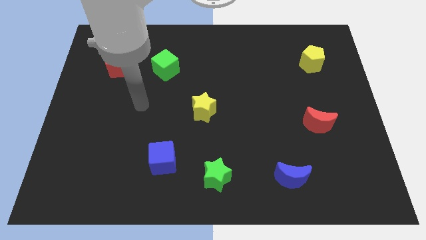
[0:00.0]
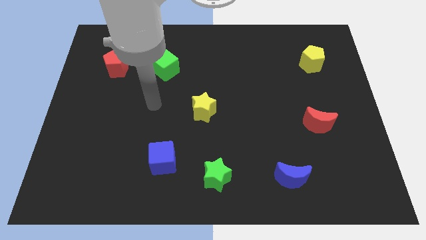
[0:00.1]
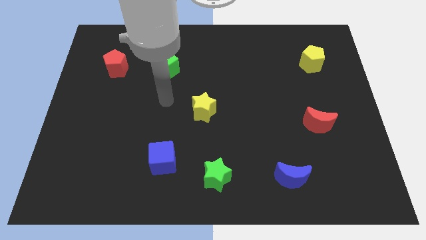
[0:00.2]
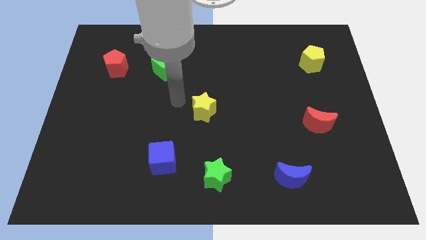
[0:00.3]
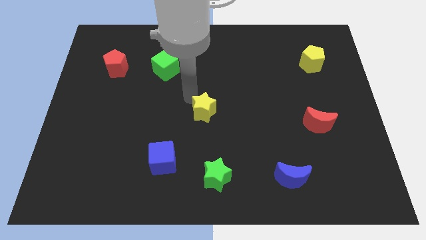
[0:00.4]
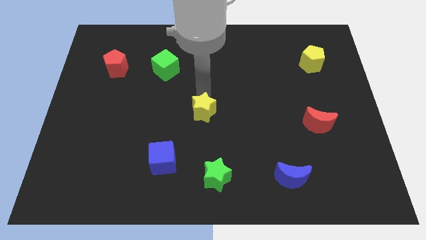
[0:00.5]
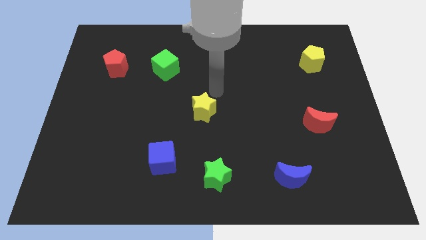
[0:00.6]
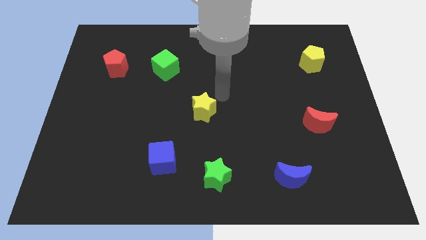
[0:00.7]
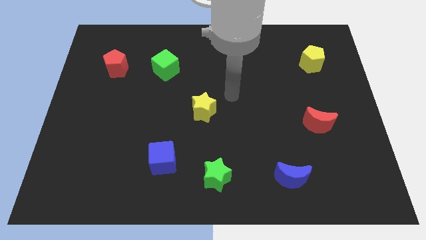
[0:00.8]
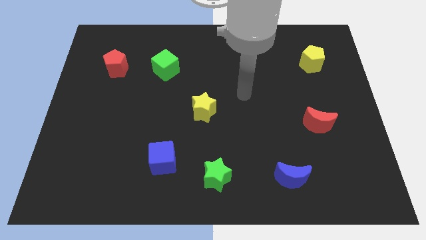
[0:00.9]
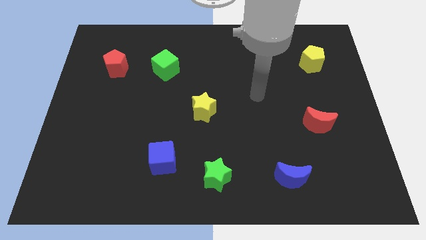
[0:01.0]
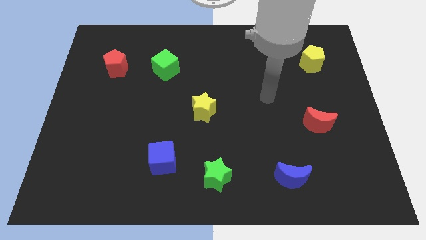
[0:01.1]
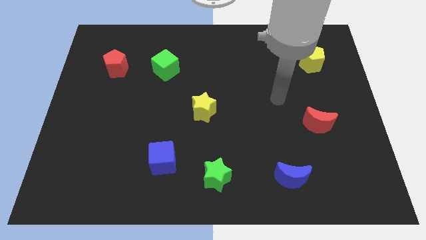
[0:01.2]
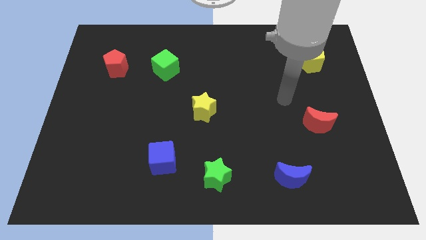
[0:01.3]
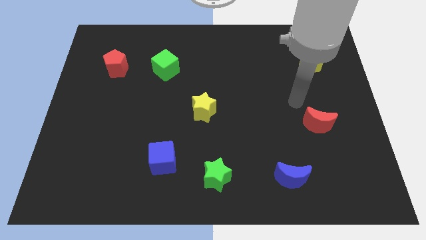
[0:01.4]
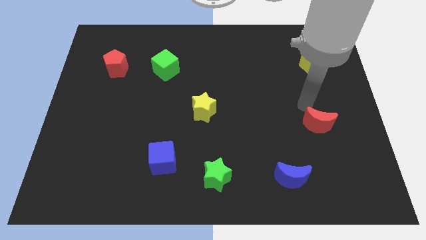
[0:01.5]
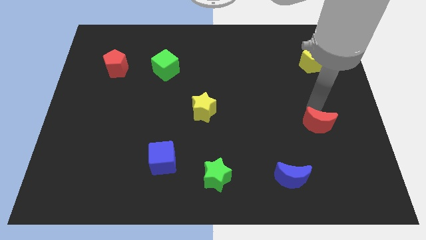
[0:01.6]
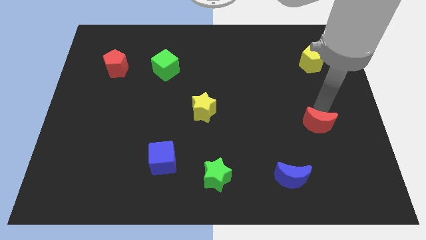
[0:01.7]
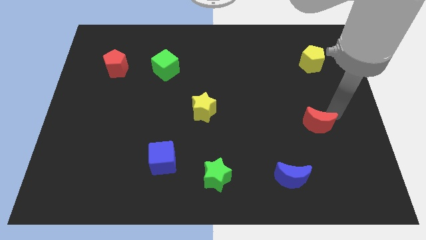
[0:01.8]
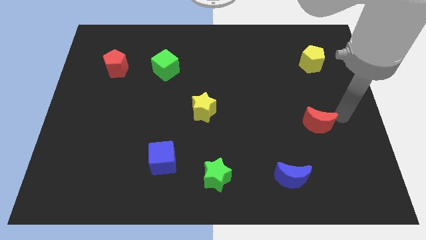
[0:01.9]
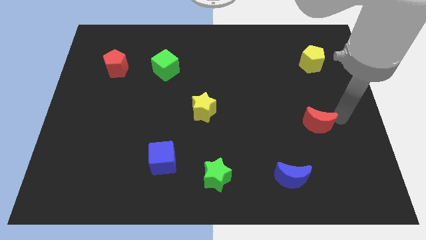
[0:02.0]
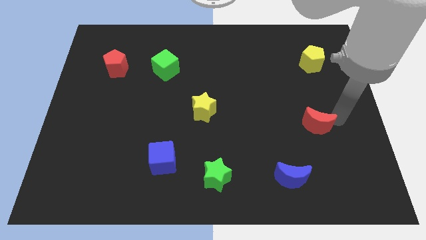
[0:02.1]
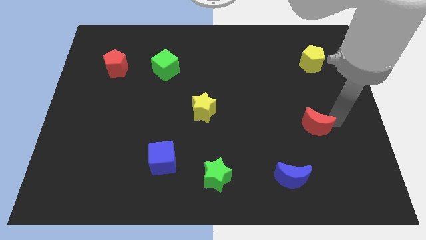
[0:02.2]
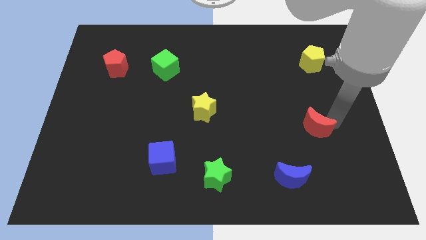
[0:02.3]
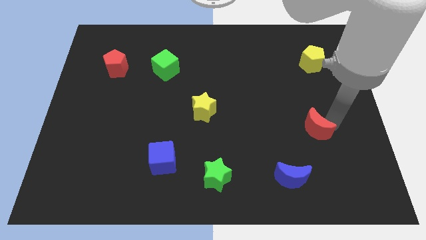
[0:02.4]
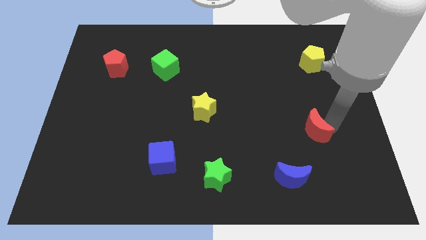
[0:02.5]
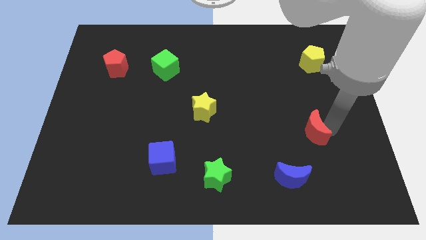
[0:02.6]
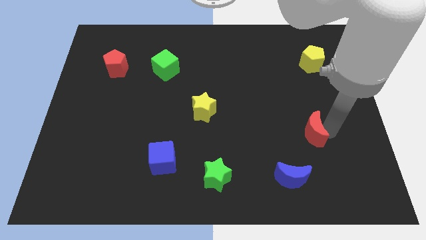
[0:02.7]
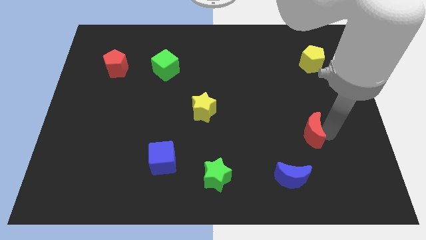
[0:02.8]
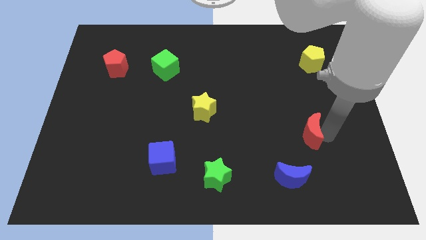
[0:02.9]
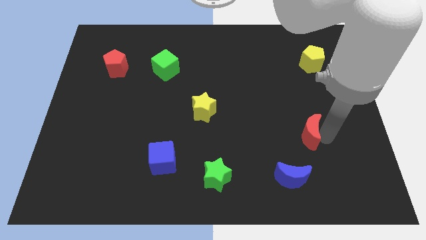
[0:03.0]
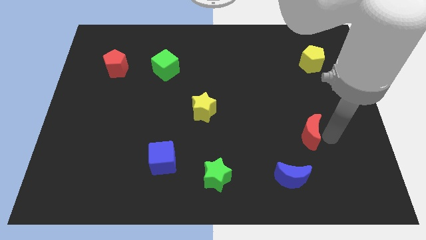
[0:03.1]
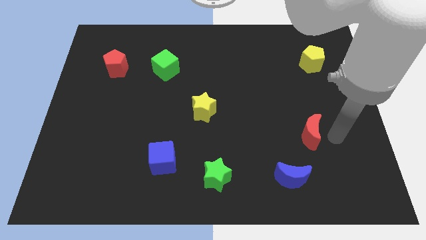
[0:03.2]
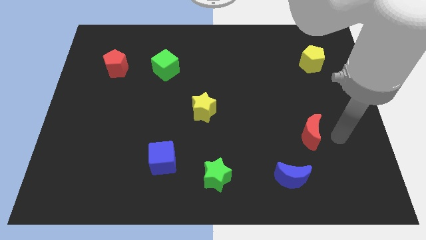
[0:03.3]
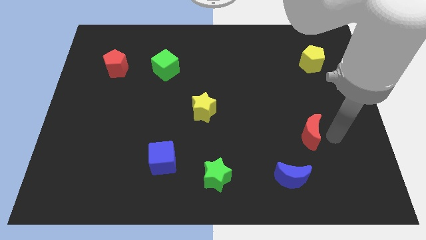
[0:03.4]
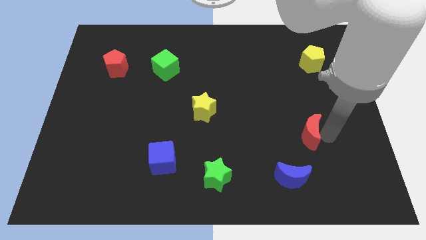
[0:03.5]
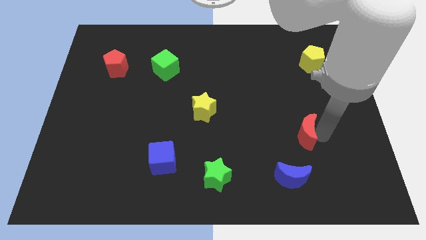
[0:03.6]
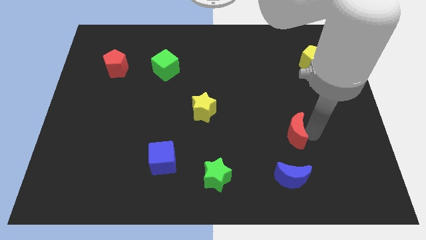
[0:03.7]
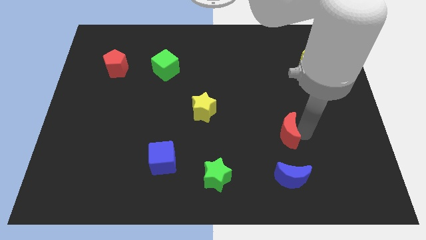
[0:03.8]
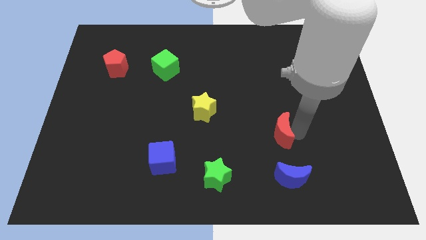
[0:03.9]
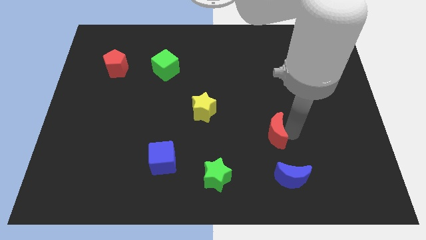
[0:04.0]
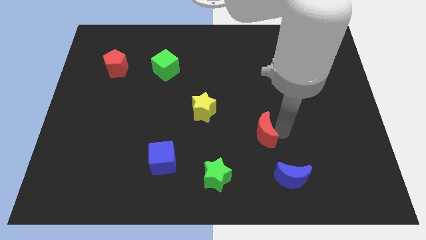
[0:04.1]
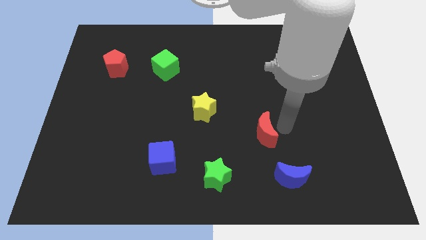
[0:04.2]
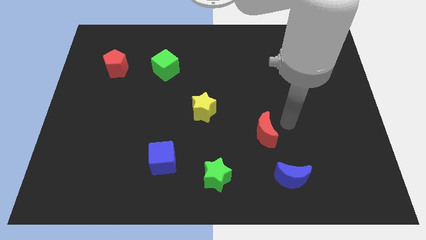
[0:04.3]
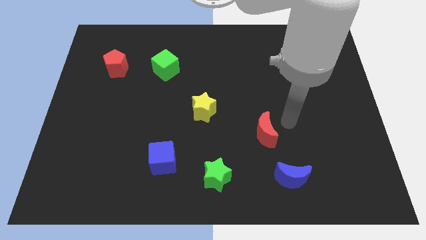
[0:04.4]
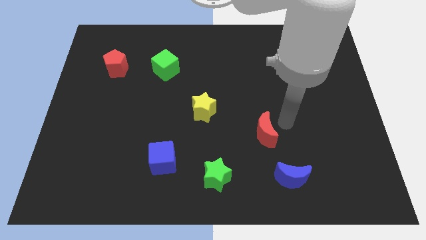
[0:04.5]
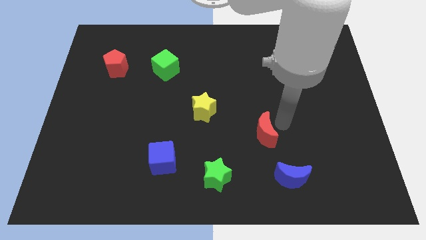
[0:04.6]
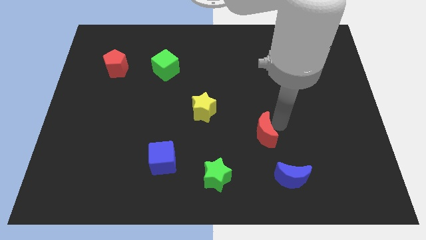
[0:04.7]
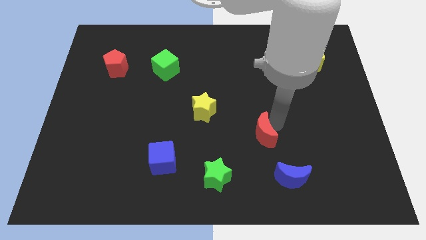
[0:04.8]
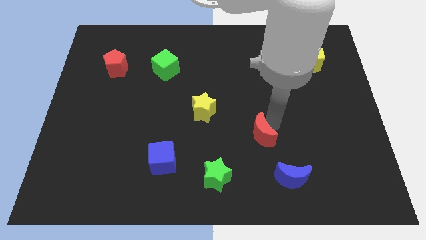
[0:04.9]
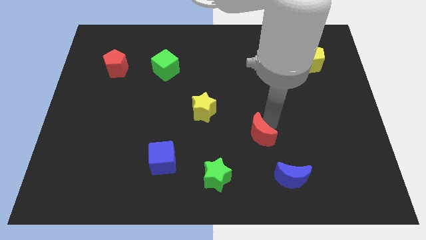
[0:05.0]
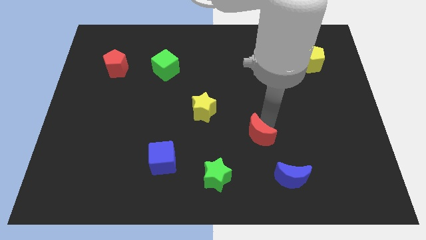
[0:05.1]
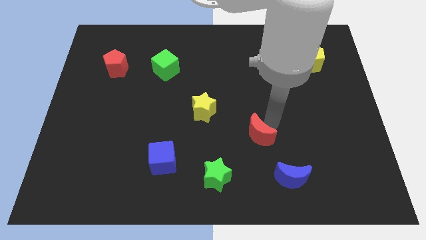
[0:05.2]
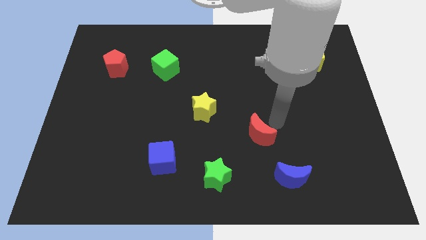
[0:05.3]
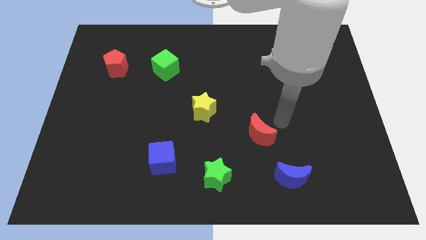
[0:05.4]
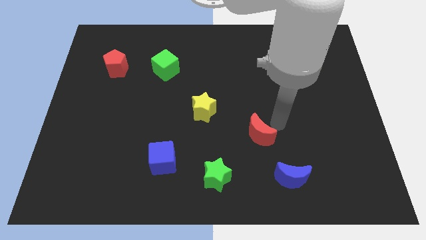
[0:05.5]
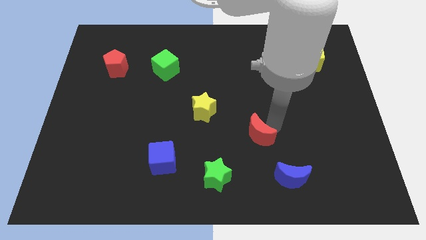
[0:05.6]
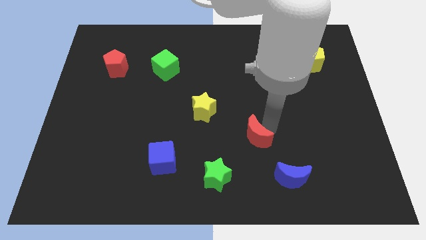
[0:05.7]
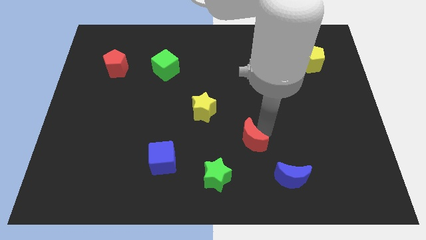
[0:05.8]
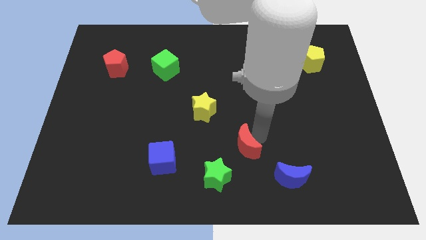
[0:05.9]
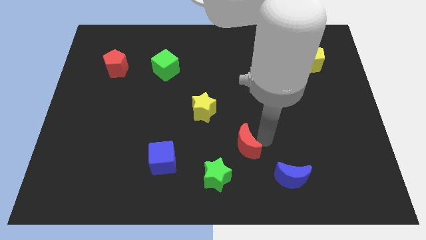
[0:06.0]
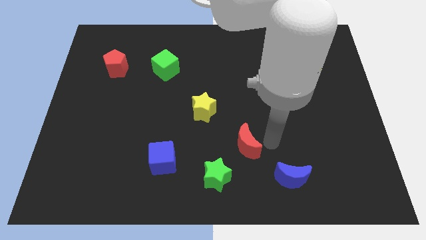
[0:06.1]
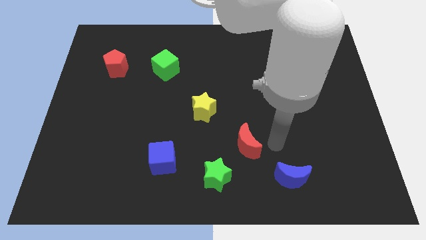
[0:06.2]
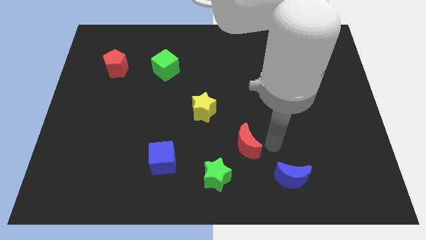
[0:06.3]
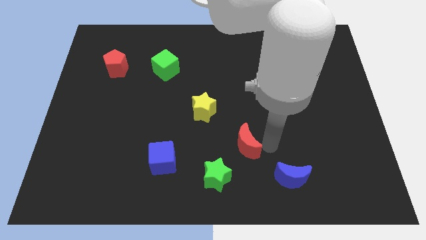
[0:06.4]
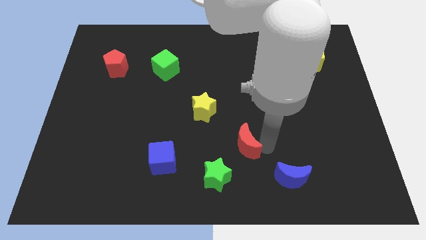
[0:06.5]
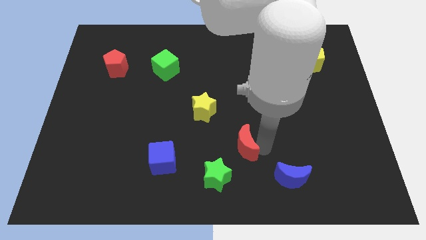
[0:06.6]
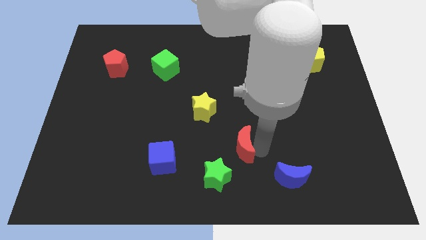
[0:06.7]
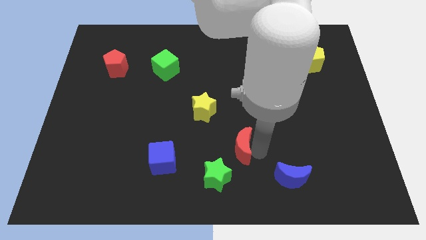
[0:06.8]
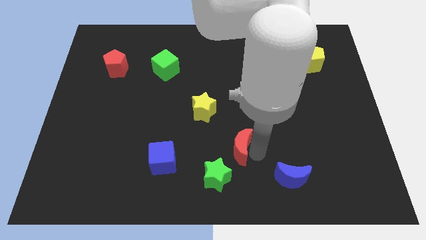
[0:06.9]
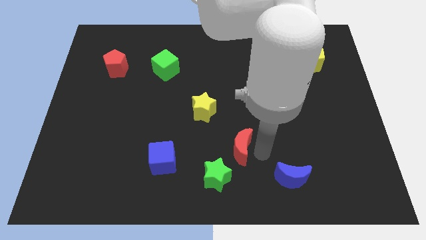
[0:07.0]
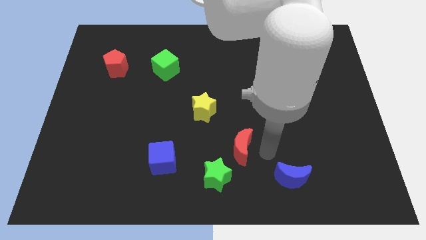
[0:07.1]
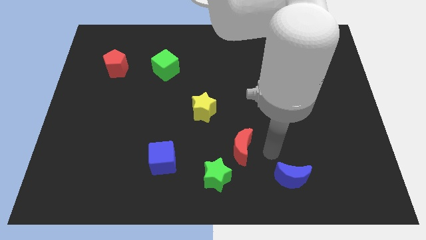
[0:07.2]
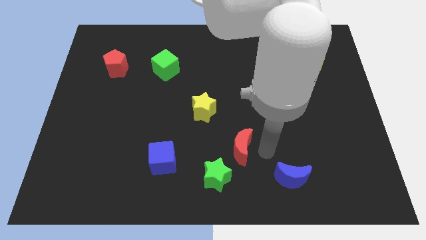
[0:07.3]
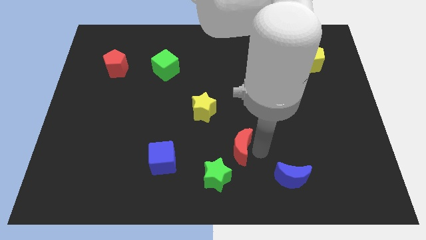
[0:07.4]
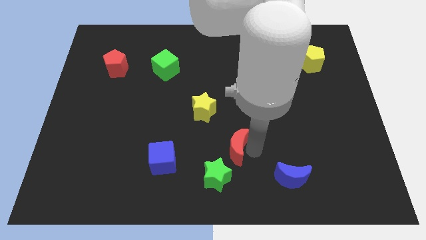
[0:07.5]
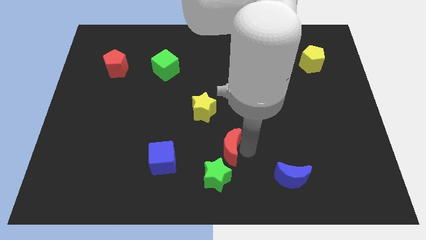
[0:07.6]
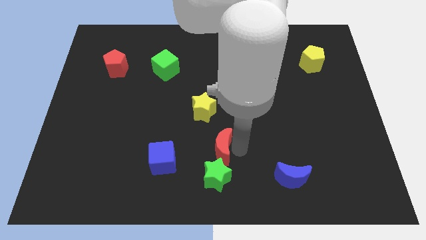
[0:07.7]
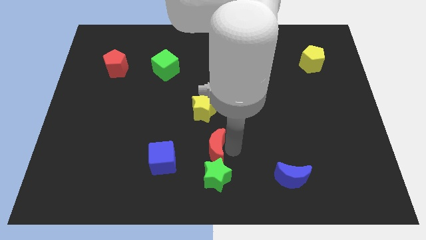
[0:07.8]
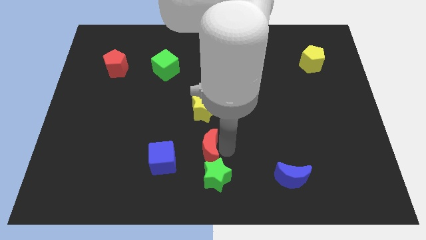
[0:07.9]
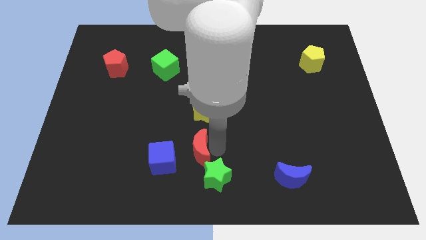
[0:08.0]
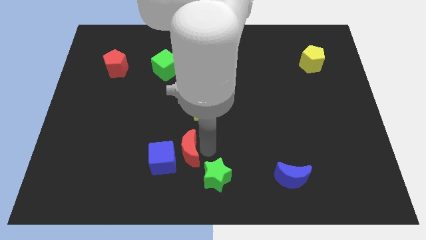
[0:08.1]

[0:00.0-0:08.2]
slide the red moon next to the blue cube
